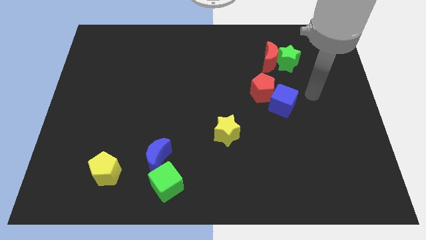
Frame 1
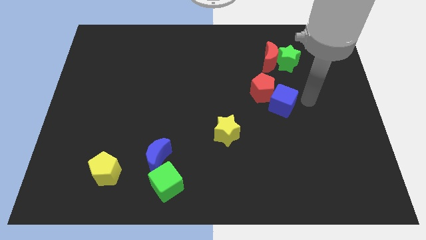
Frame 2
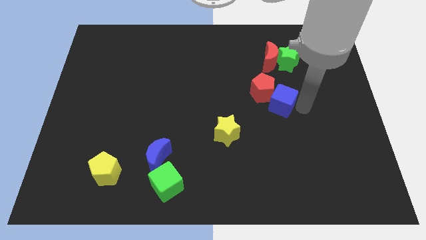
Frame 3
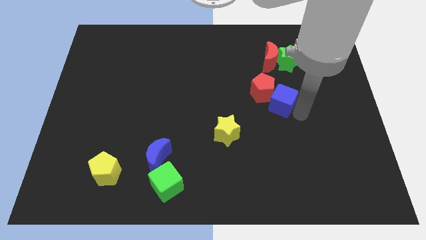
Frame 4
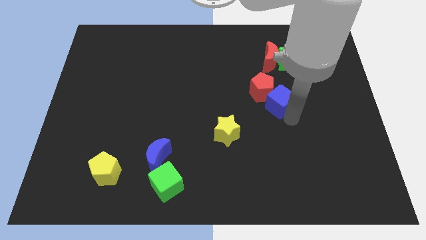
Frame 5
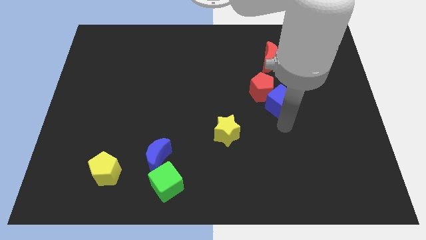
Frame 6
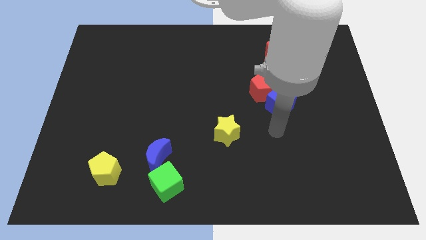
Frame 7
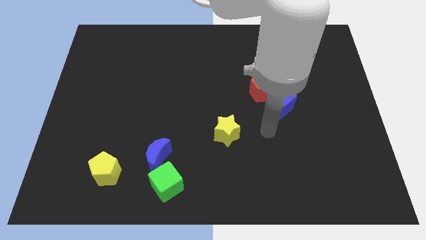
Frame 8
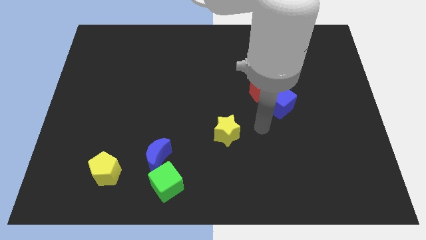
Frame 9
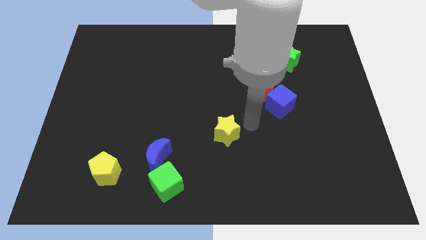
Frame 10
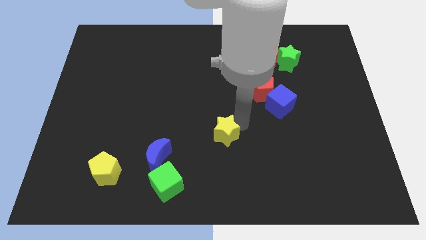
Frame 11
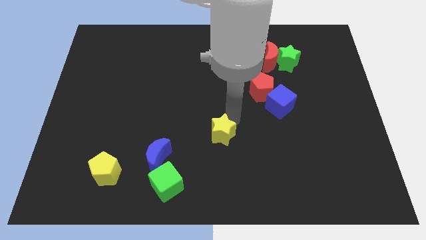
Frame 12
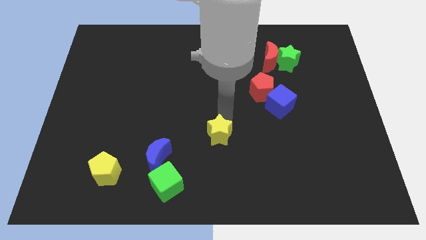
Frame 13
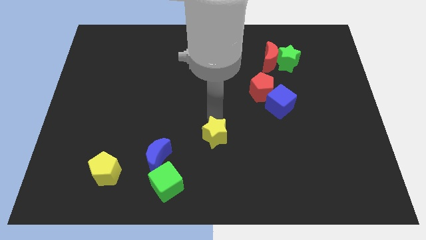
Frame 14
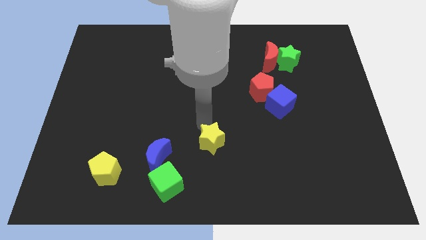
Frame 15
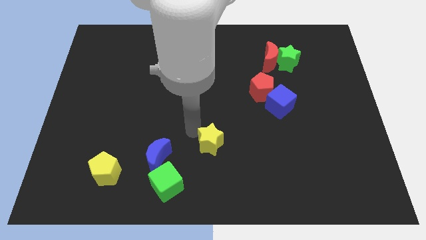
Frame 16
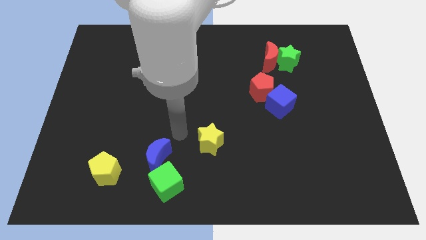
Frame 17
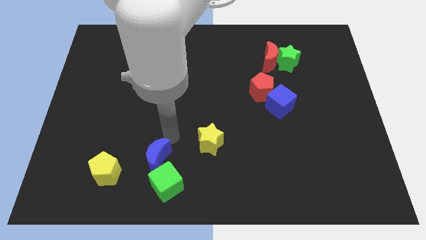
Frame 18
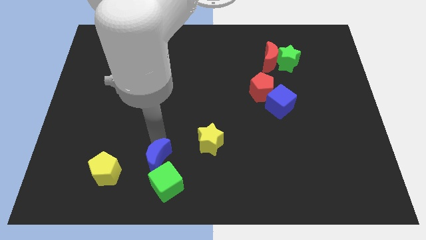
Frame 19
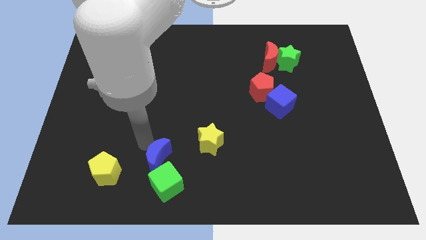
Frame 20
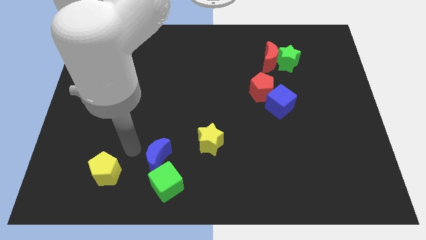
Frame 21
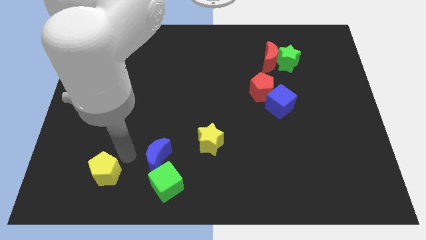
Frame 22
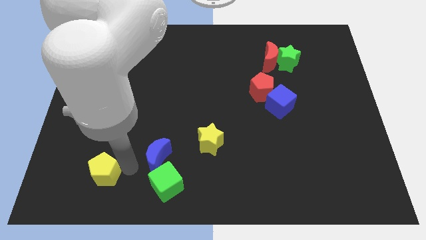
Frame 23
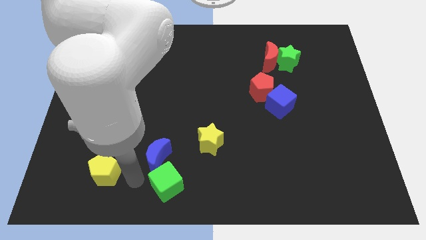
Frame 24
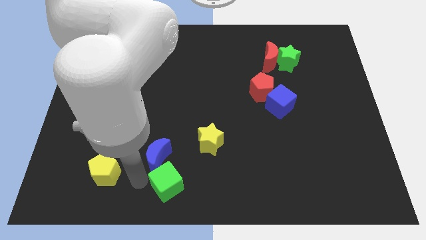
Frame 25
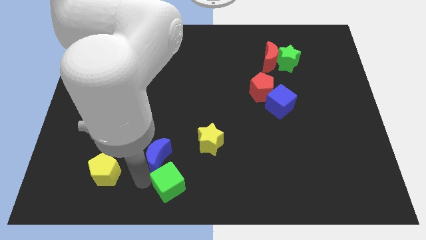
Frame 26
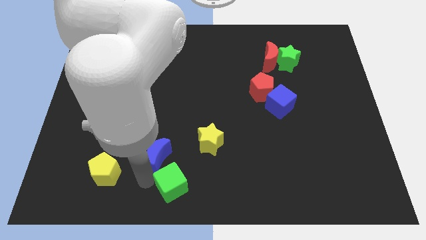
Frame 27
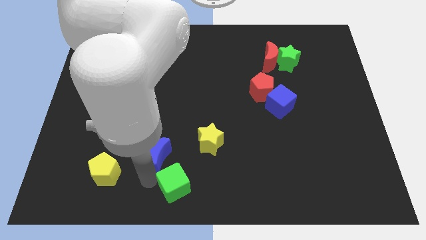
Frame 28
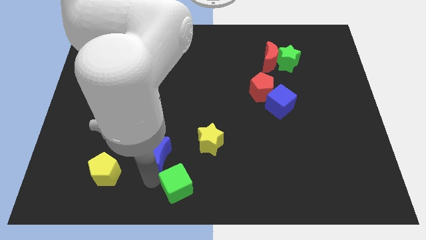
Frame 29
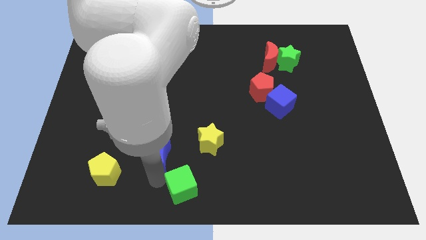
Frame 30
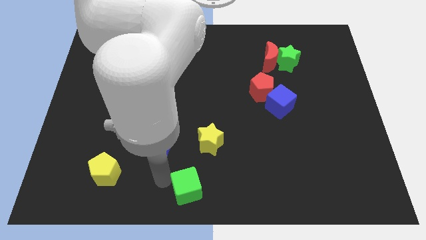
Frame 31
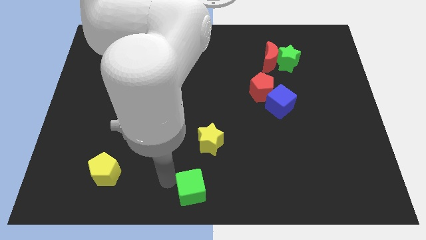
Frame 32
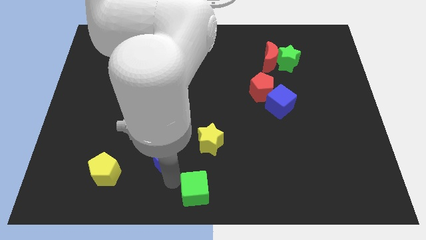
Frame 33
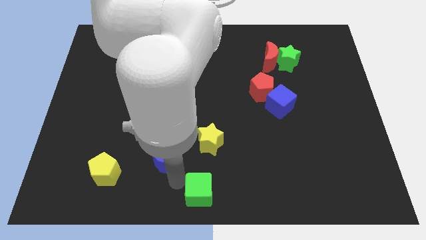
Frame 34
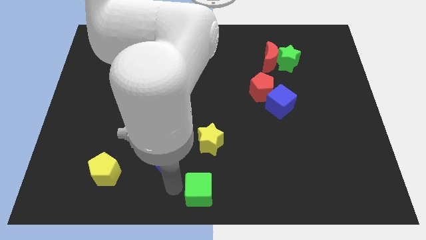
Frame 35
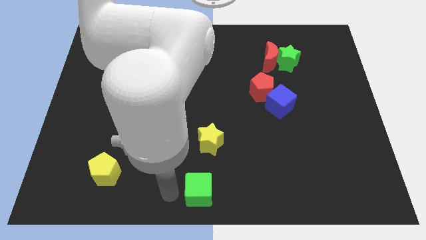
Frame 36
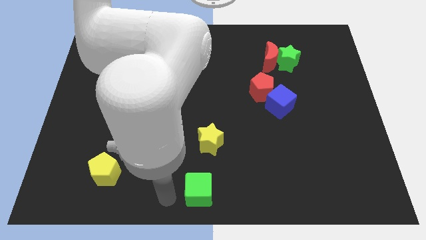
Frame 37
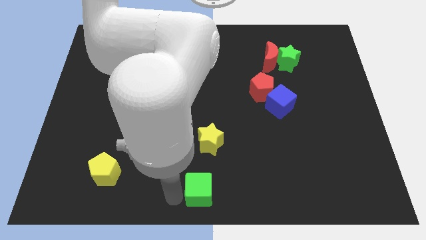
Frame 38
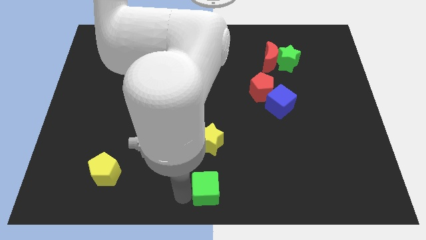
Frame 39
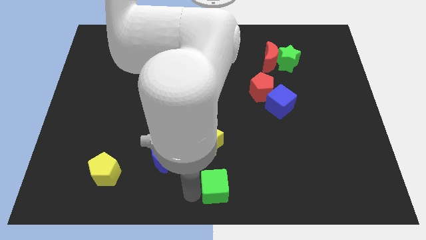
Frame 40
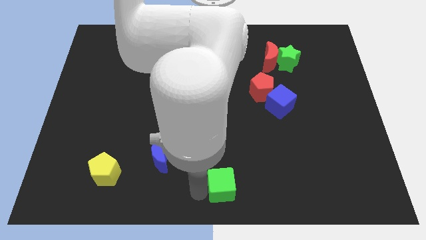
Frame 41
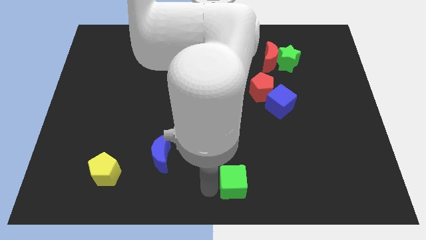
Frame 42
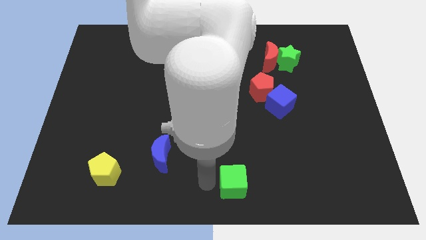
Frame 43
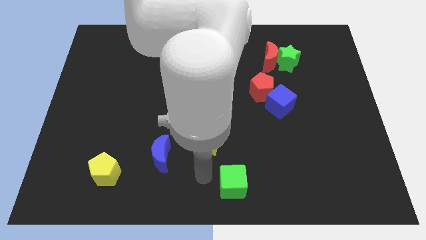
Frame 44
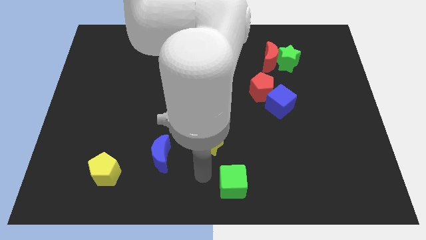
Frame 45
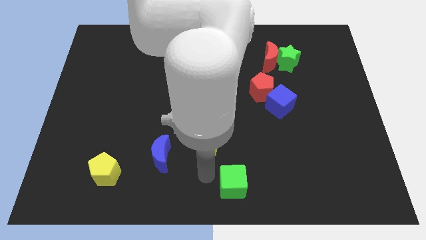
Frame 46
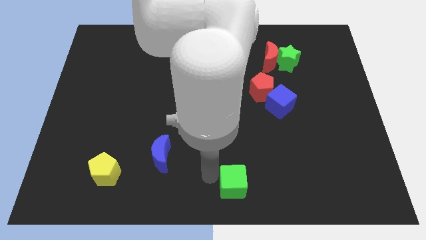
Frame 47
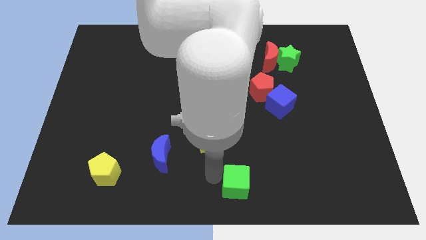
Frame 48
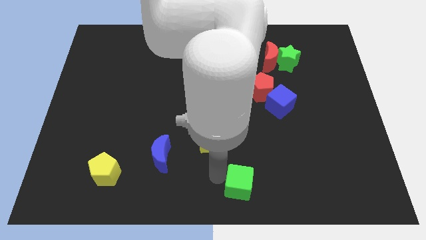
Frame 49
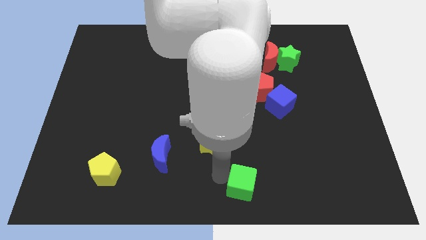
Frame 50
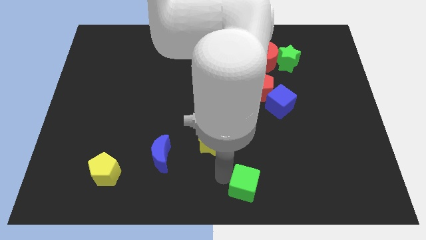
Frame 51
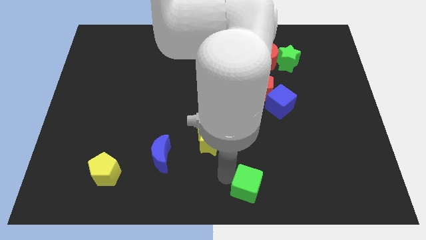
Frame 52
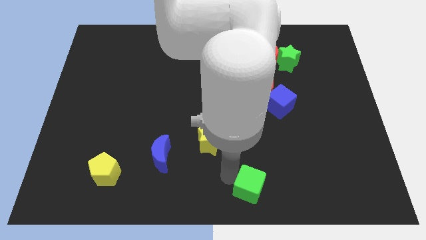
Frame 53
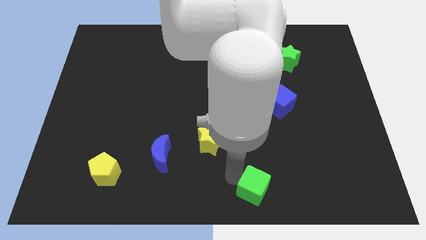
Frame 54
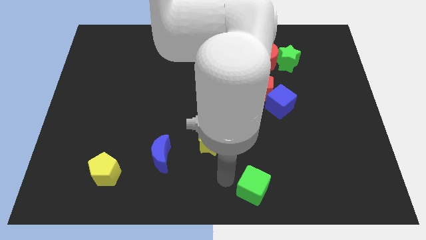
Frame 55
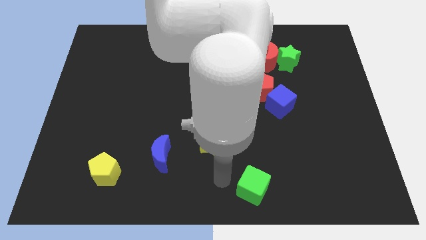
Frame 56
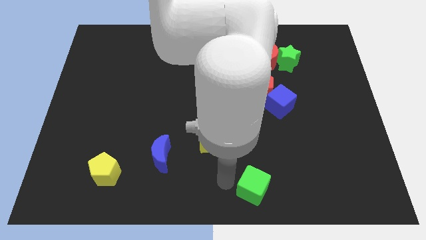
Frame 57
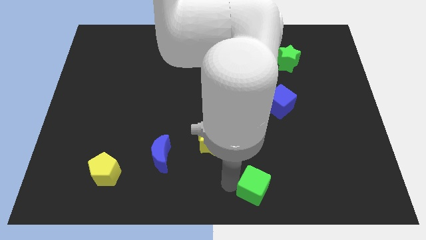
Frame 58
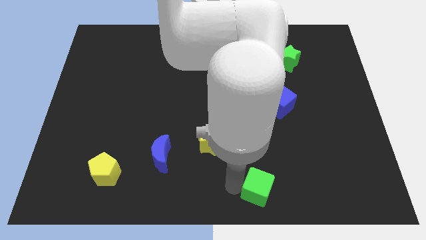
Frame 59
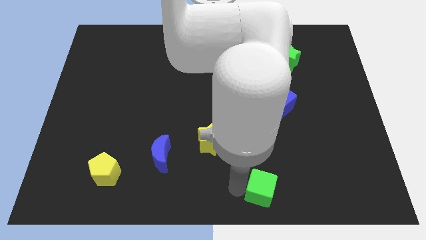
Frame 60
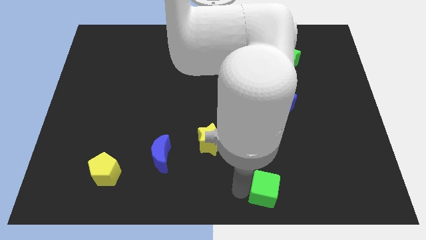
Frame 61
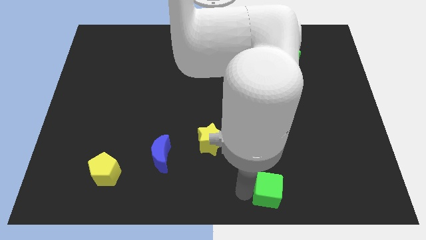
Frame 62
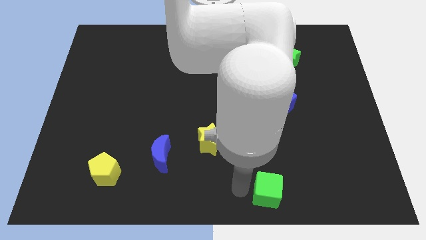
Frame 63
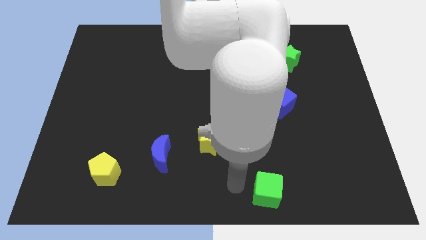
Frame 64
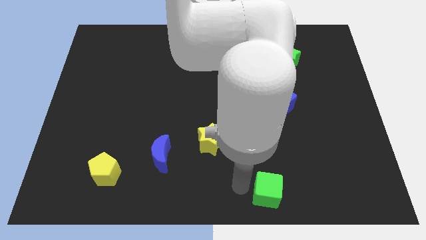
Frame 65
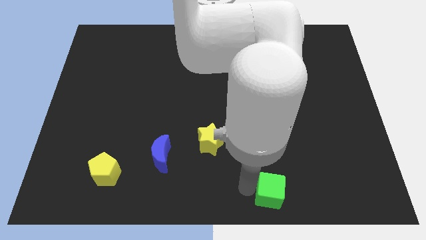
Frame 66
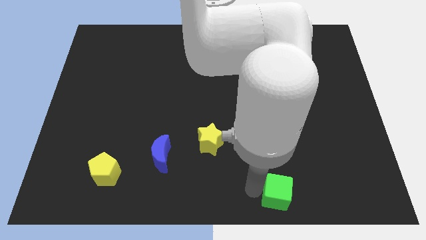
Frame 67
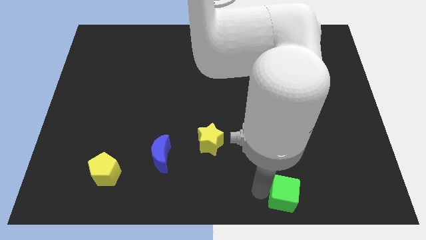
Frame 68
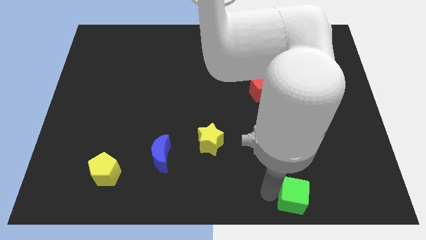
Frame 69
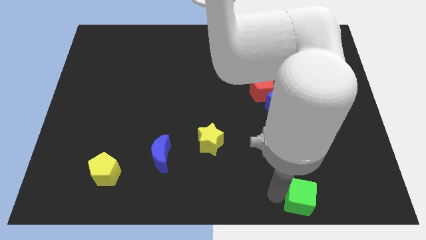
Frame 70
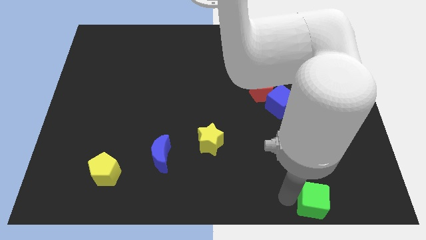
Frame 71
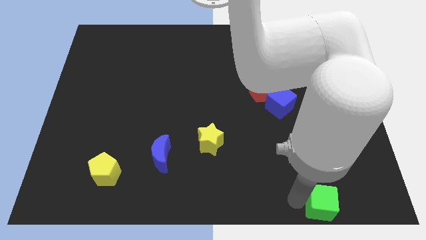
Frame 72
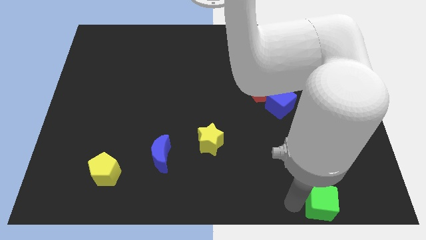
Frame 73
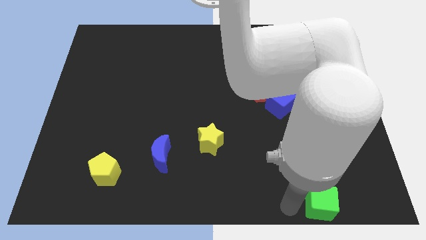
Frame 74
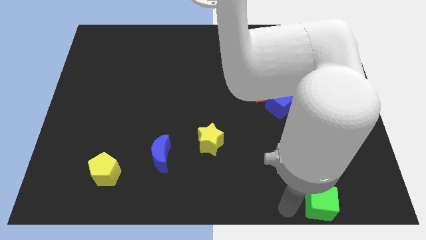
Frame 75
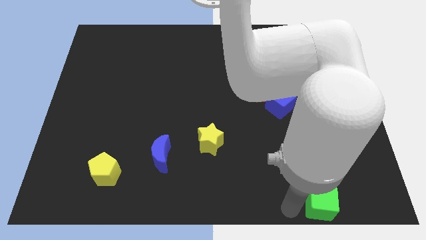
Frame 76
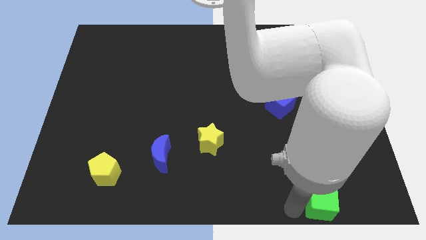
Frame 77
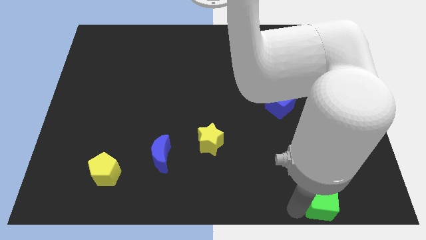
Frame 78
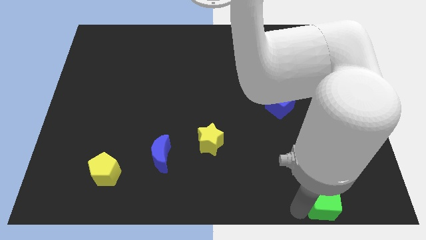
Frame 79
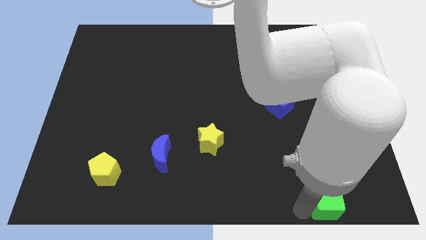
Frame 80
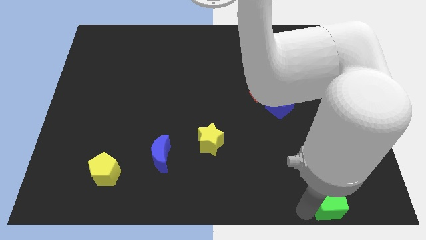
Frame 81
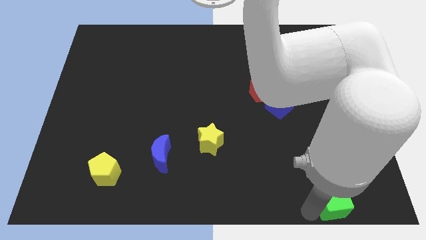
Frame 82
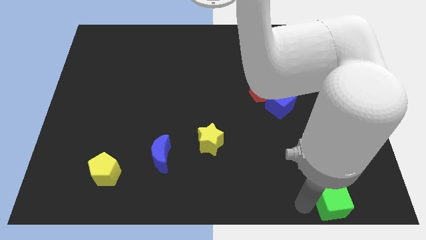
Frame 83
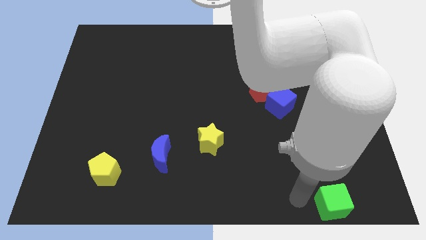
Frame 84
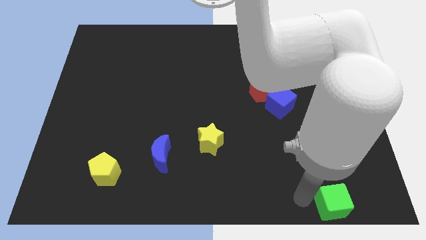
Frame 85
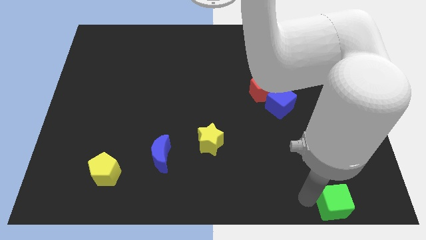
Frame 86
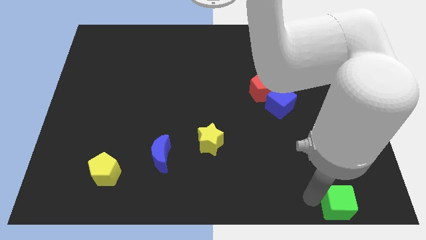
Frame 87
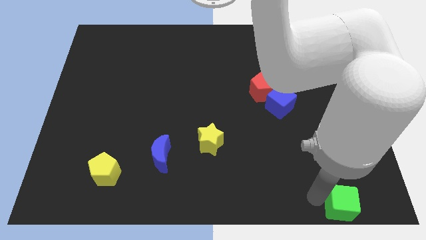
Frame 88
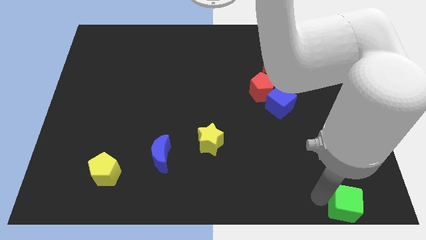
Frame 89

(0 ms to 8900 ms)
slide the green cube to the lower right corner
